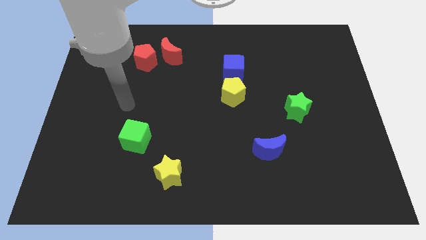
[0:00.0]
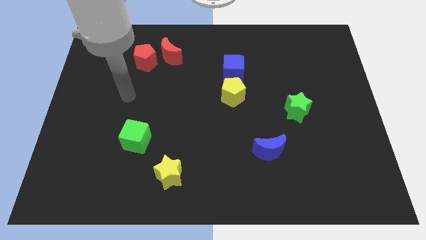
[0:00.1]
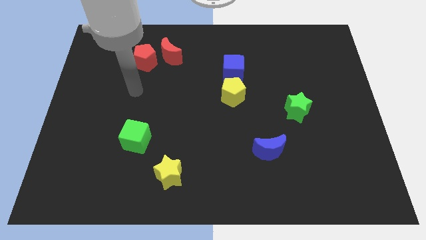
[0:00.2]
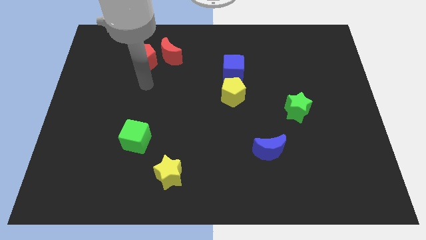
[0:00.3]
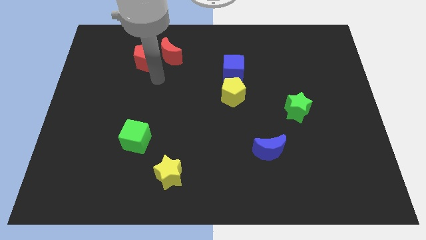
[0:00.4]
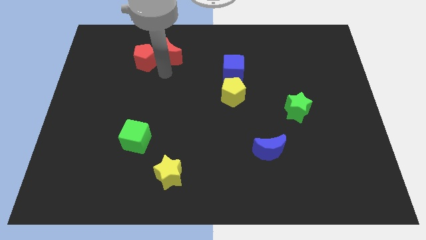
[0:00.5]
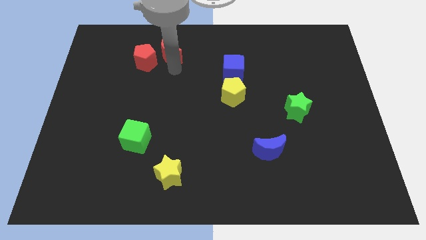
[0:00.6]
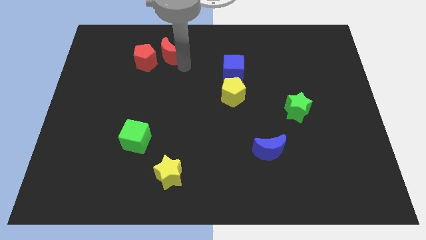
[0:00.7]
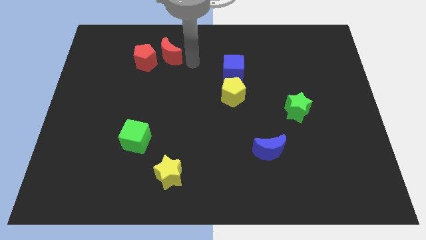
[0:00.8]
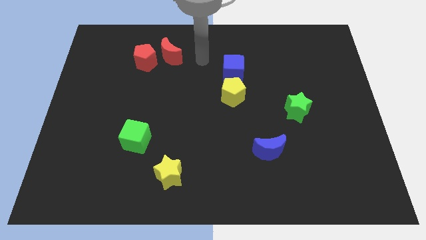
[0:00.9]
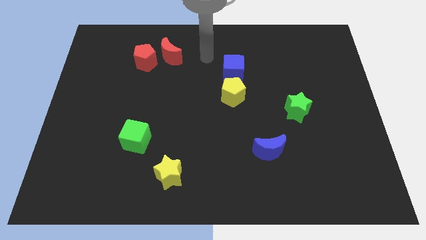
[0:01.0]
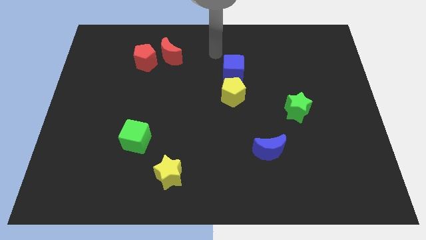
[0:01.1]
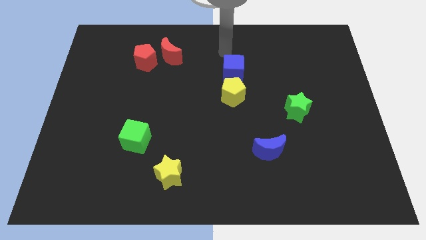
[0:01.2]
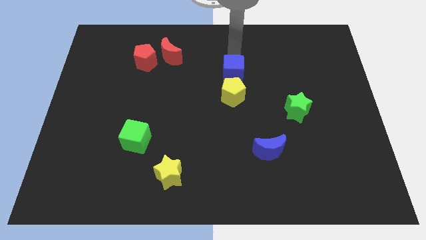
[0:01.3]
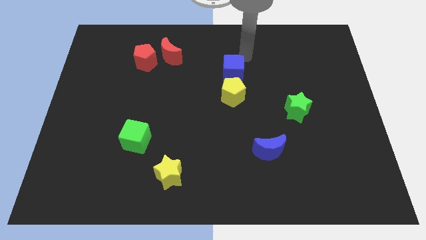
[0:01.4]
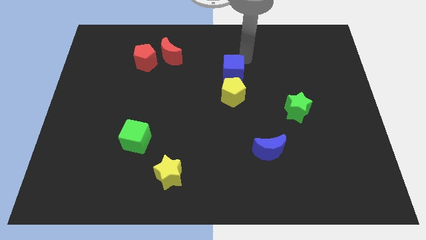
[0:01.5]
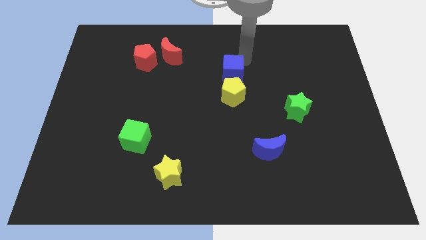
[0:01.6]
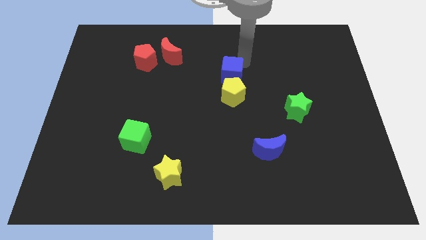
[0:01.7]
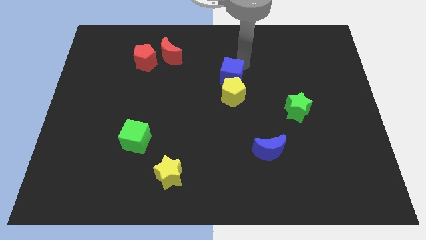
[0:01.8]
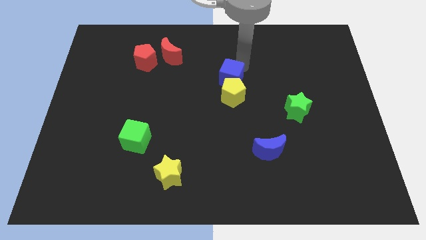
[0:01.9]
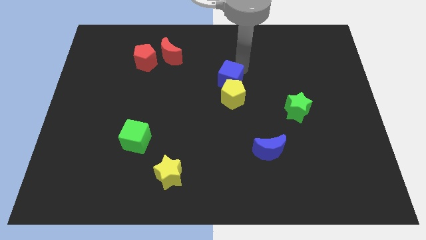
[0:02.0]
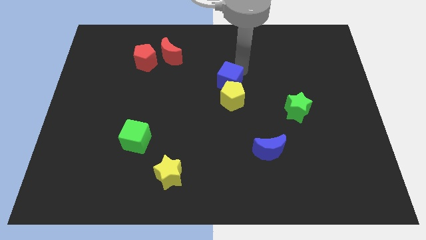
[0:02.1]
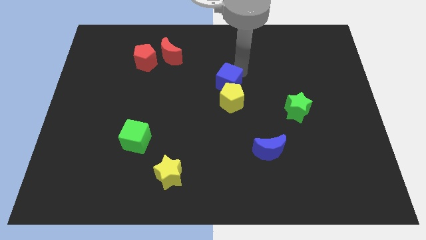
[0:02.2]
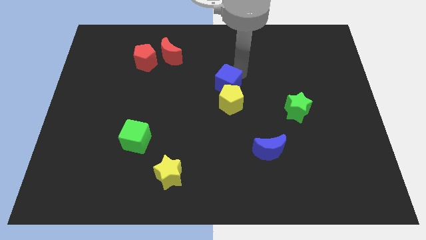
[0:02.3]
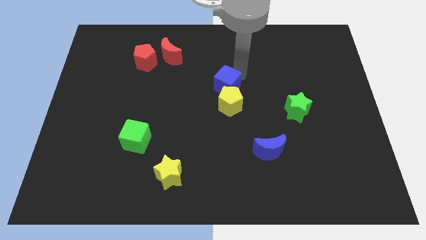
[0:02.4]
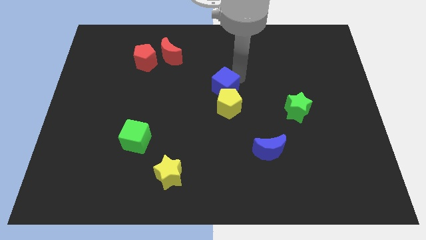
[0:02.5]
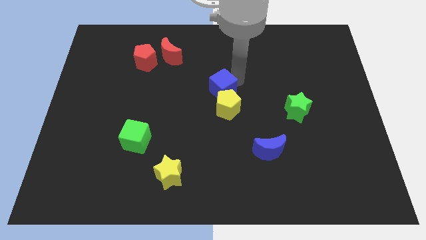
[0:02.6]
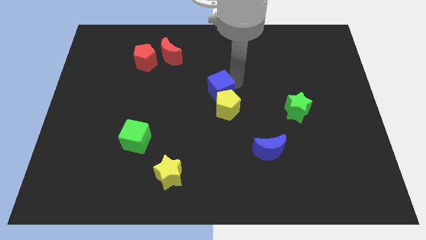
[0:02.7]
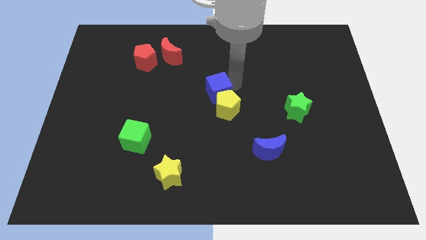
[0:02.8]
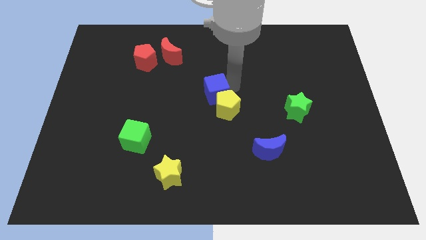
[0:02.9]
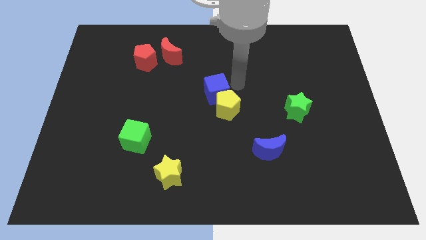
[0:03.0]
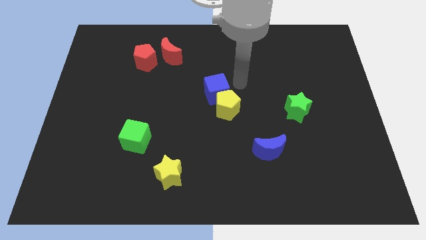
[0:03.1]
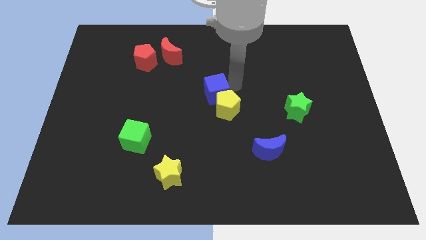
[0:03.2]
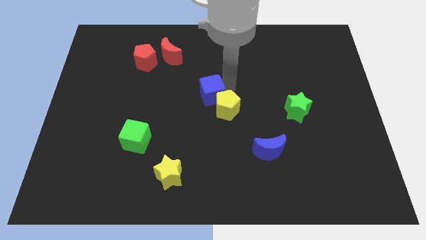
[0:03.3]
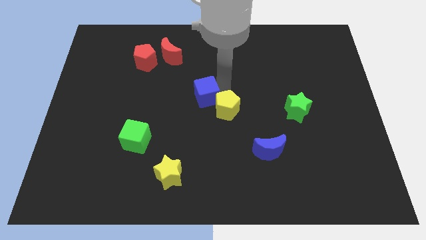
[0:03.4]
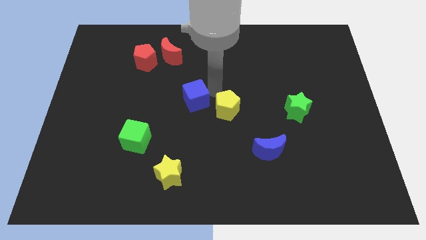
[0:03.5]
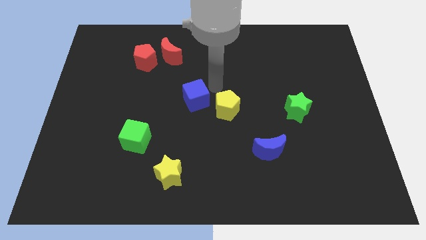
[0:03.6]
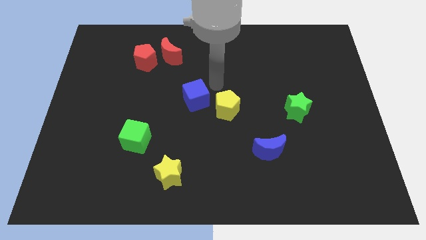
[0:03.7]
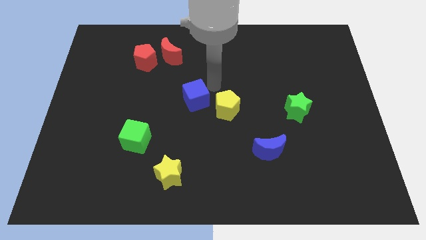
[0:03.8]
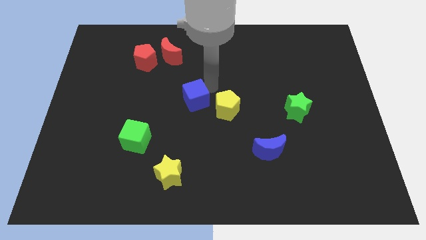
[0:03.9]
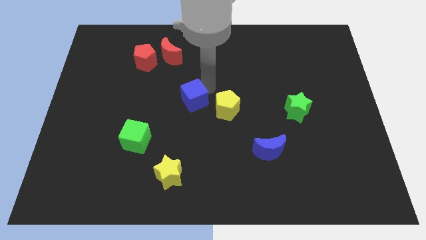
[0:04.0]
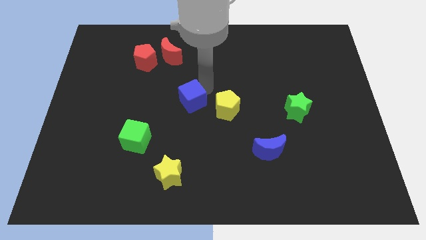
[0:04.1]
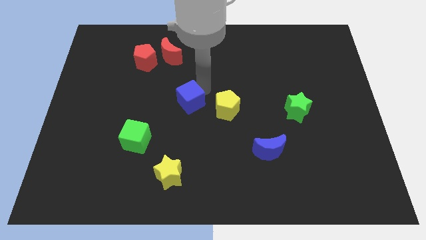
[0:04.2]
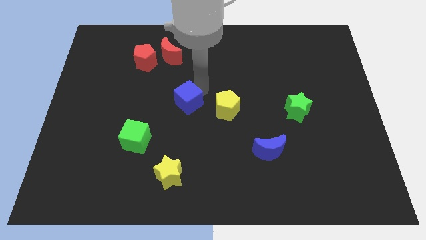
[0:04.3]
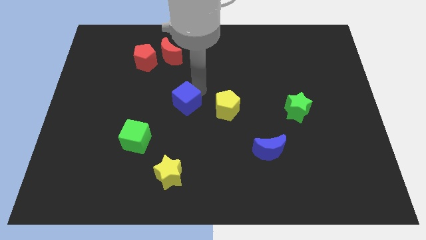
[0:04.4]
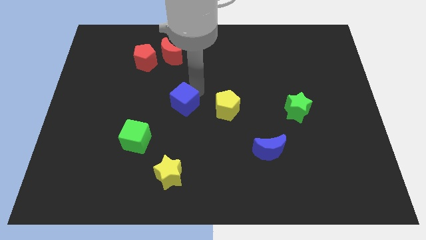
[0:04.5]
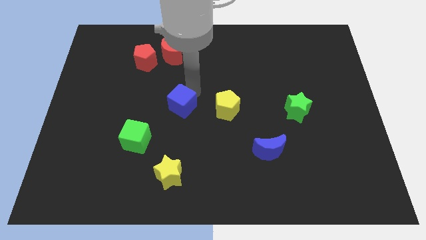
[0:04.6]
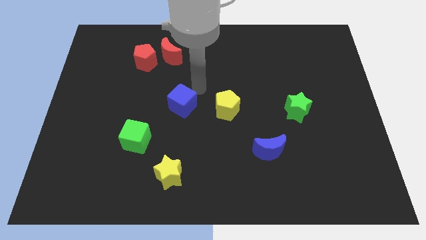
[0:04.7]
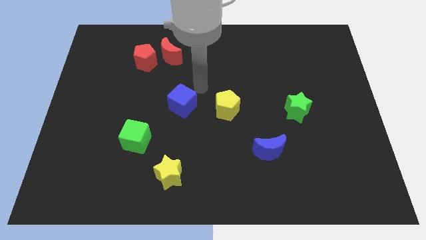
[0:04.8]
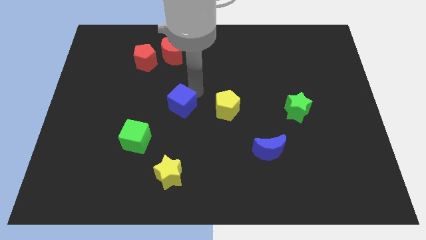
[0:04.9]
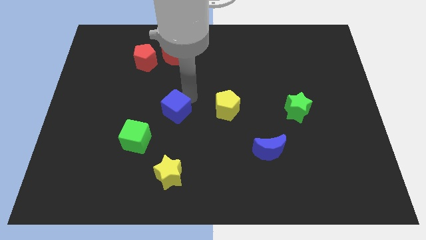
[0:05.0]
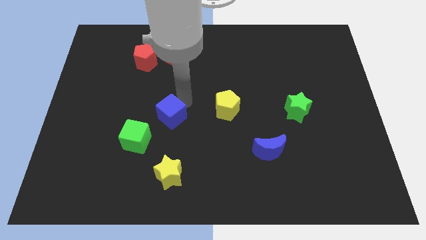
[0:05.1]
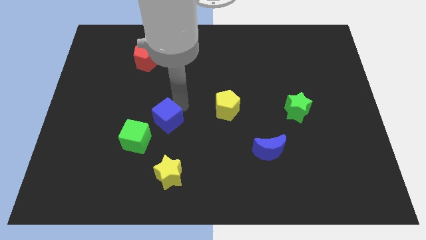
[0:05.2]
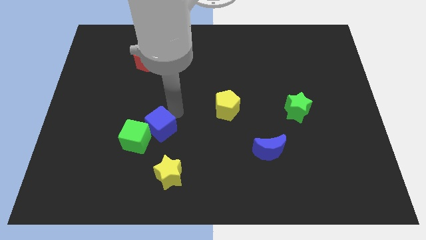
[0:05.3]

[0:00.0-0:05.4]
move the blue cube next to the green cube
